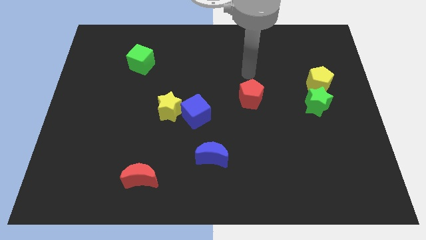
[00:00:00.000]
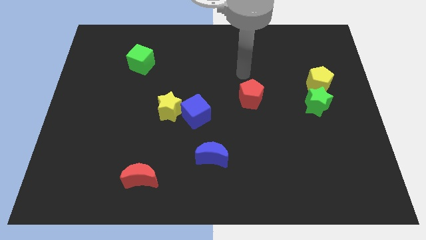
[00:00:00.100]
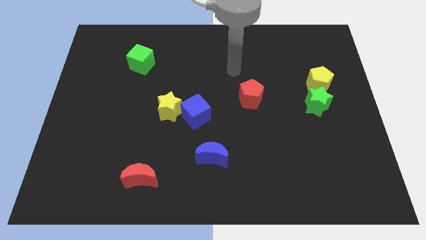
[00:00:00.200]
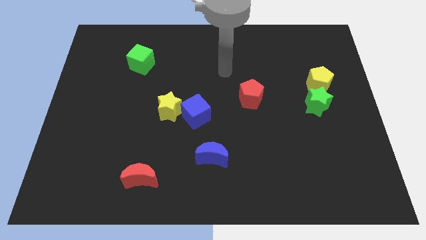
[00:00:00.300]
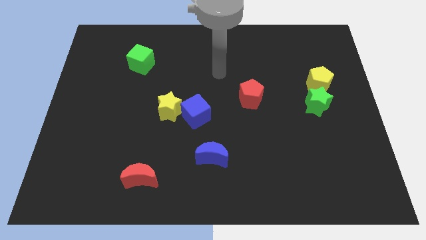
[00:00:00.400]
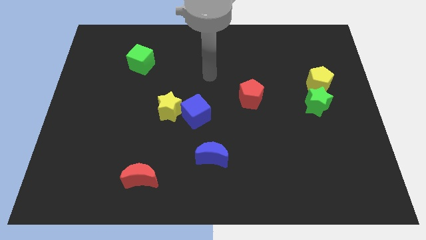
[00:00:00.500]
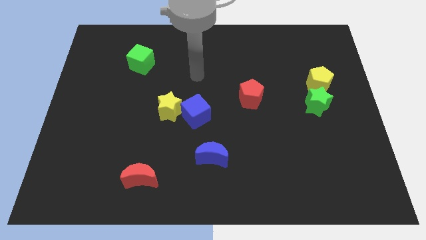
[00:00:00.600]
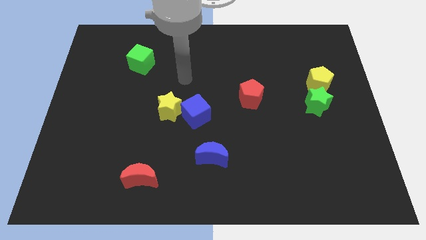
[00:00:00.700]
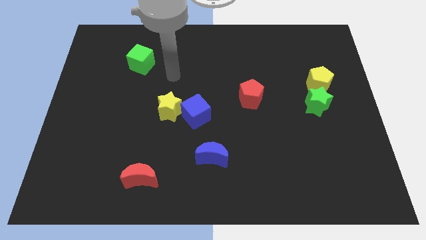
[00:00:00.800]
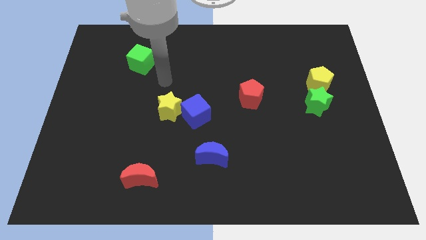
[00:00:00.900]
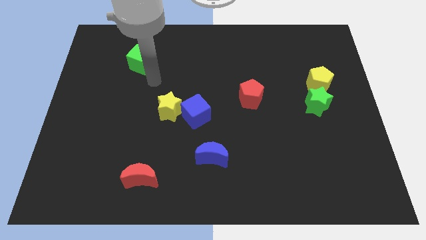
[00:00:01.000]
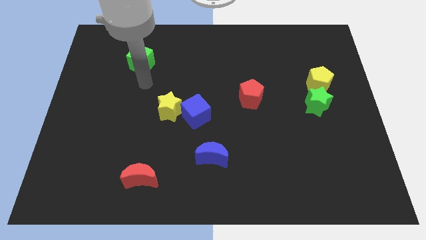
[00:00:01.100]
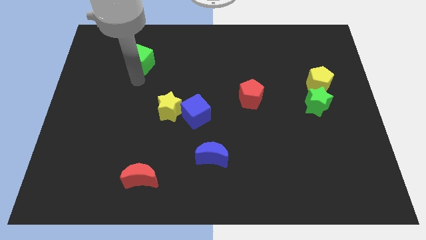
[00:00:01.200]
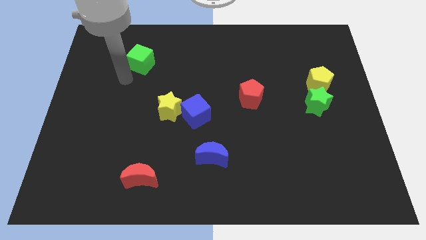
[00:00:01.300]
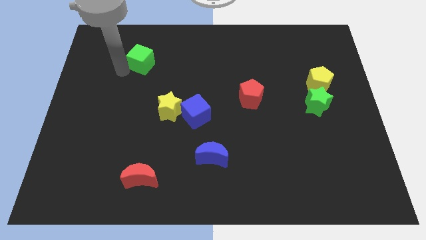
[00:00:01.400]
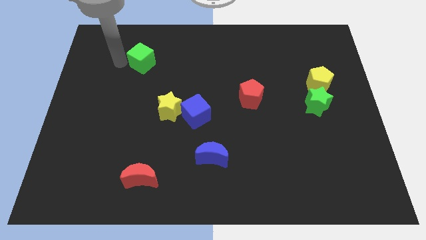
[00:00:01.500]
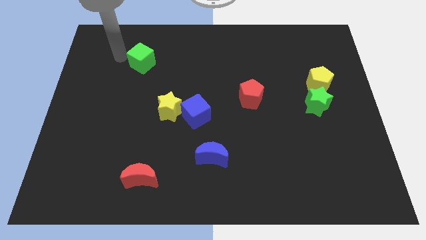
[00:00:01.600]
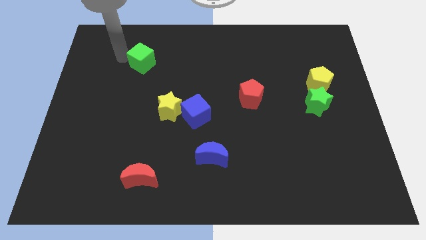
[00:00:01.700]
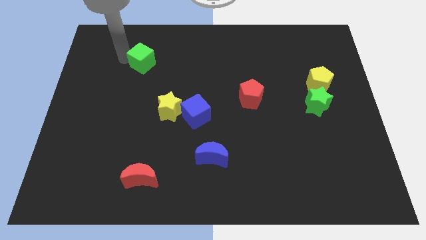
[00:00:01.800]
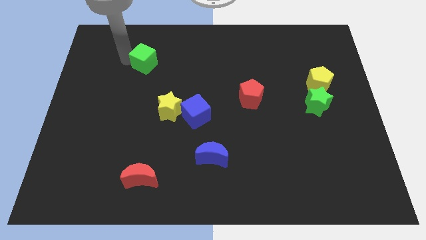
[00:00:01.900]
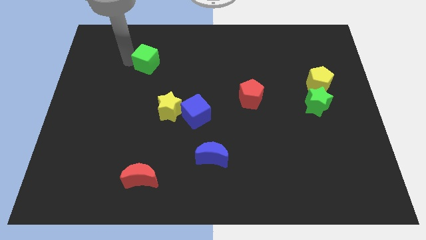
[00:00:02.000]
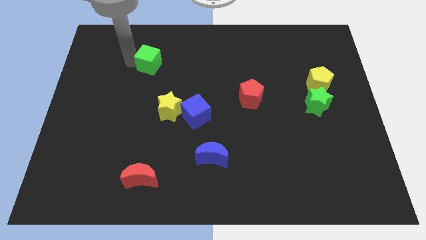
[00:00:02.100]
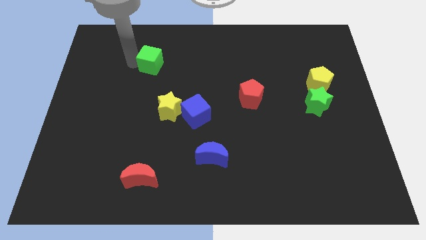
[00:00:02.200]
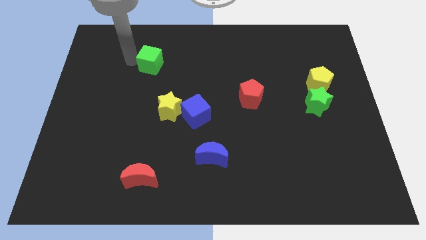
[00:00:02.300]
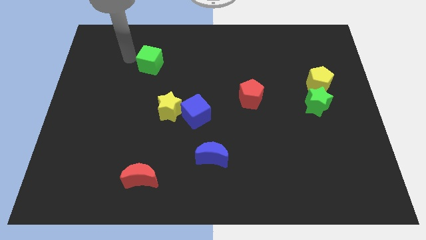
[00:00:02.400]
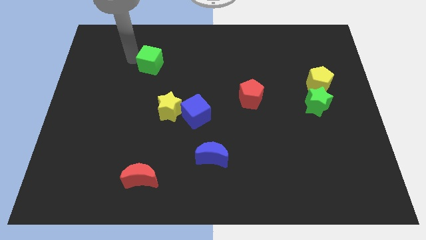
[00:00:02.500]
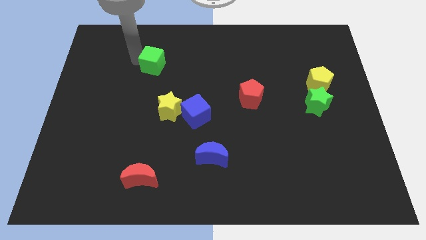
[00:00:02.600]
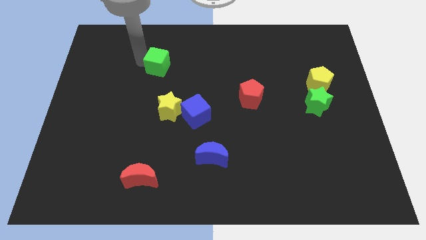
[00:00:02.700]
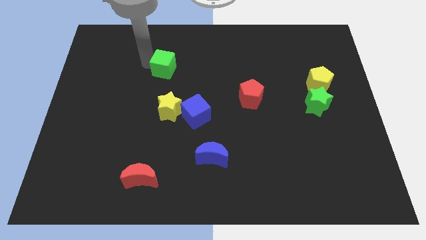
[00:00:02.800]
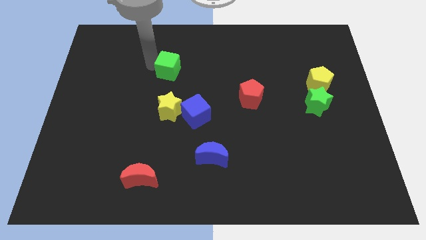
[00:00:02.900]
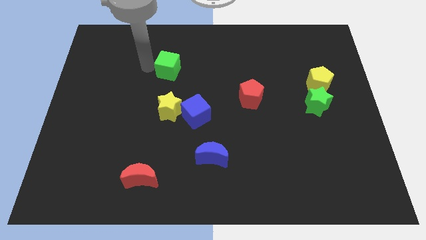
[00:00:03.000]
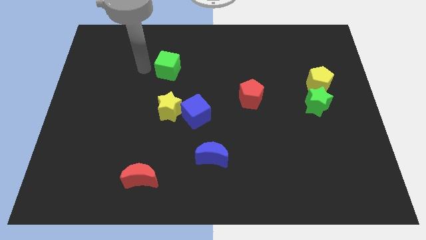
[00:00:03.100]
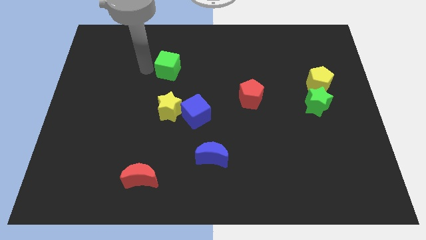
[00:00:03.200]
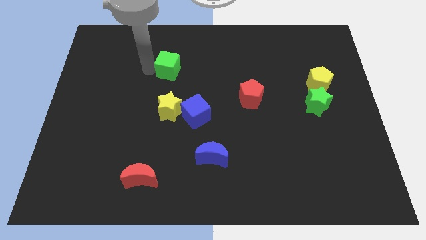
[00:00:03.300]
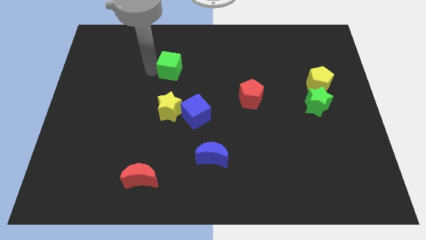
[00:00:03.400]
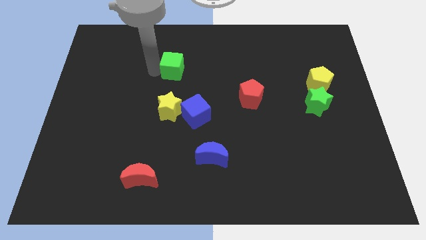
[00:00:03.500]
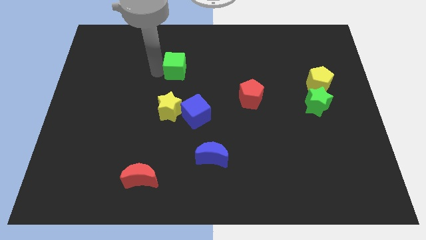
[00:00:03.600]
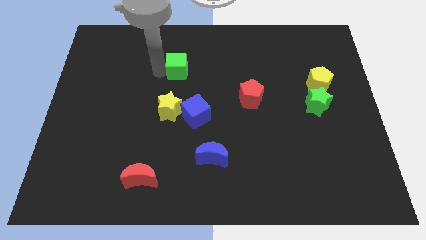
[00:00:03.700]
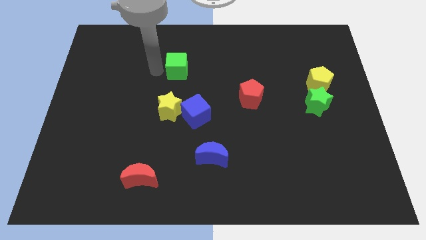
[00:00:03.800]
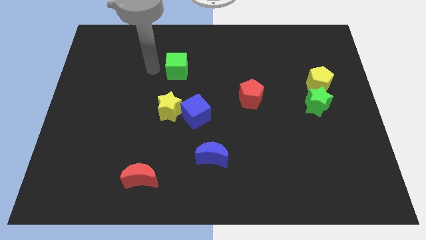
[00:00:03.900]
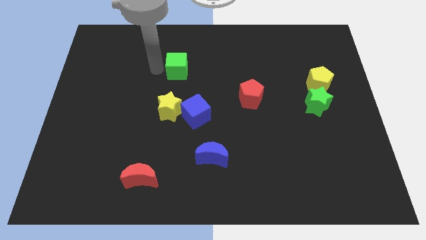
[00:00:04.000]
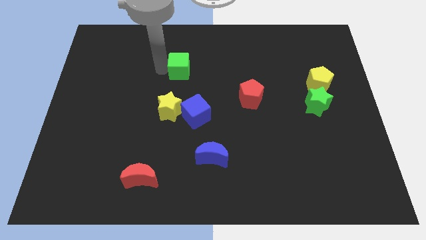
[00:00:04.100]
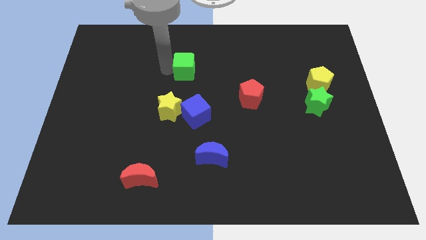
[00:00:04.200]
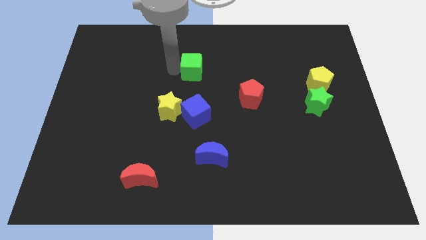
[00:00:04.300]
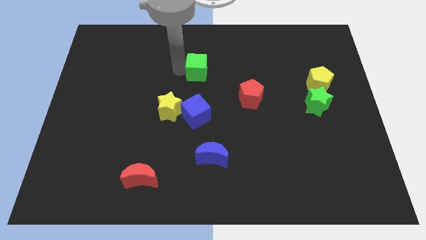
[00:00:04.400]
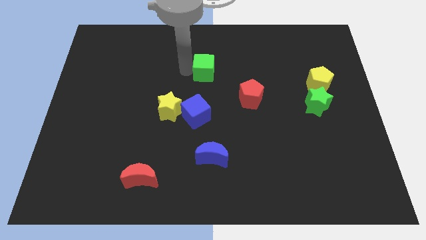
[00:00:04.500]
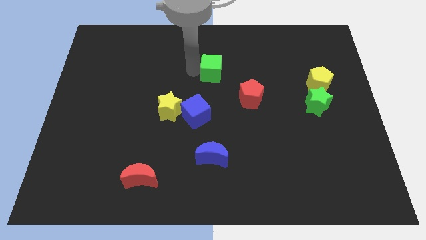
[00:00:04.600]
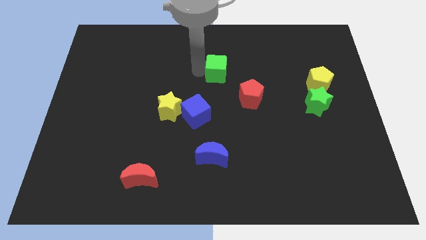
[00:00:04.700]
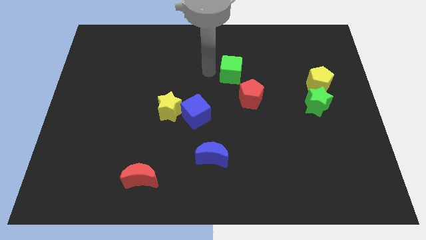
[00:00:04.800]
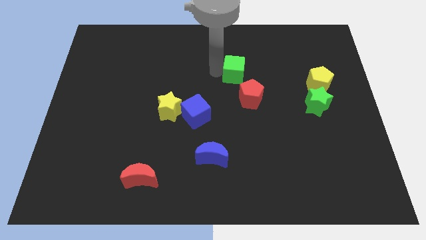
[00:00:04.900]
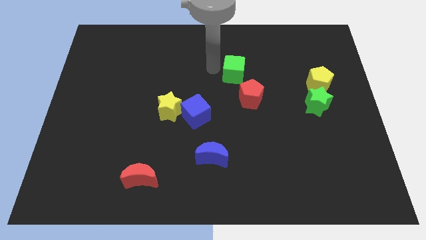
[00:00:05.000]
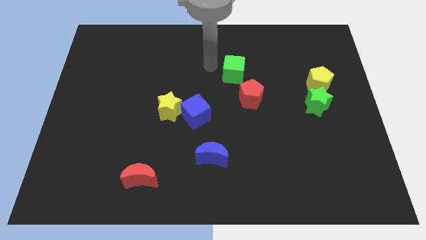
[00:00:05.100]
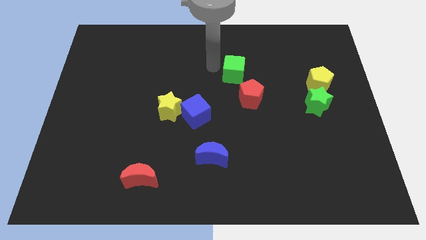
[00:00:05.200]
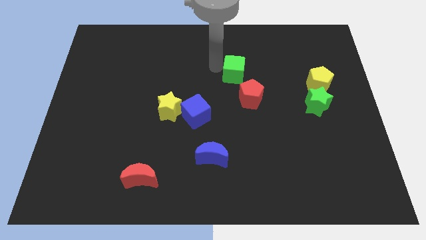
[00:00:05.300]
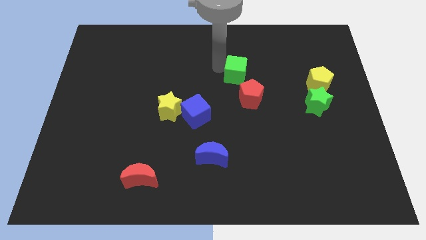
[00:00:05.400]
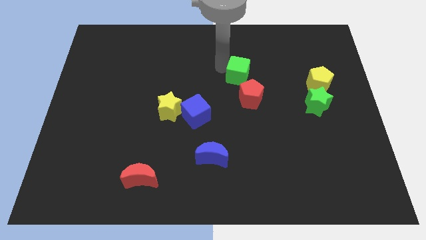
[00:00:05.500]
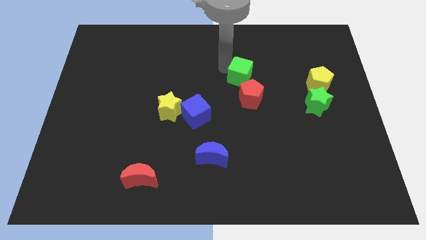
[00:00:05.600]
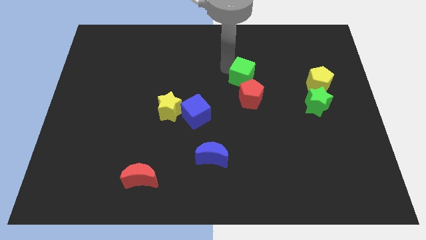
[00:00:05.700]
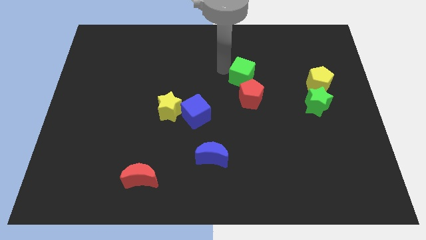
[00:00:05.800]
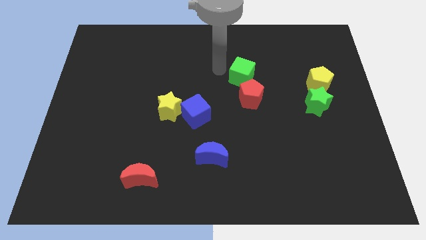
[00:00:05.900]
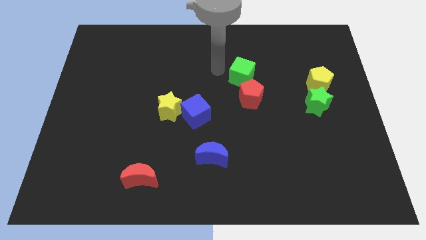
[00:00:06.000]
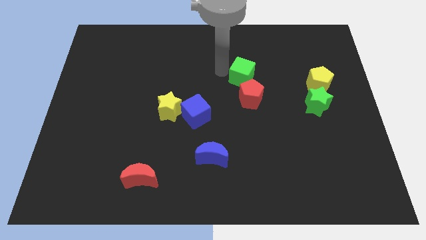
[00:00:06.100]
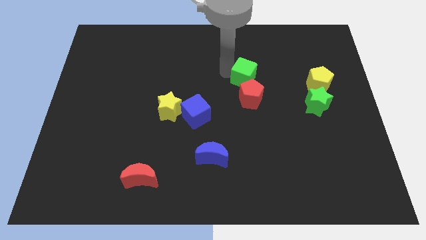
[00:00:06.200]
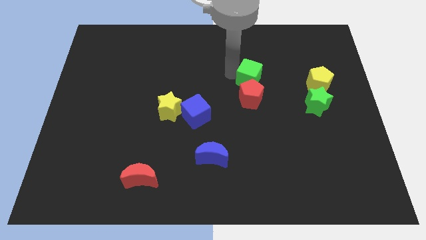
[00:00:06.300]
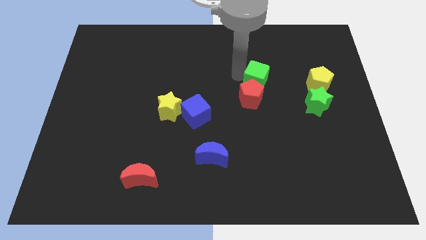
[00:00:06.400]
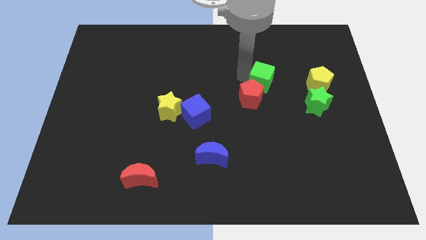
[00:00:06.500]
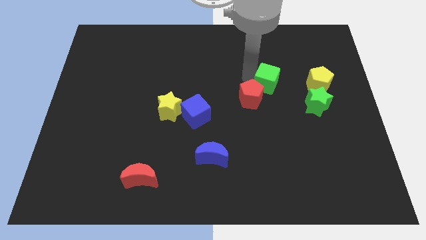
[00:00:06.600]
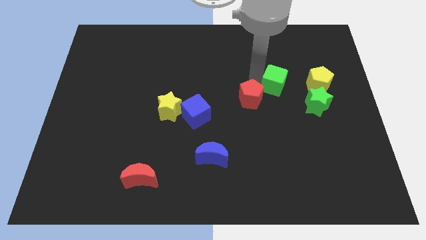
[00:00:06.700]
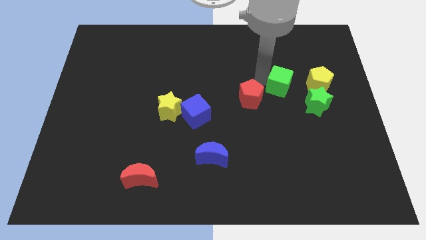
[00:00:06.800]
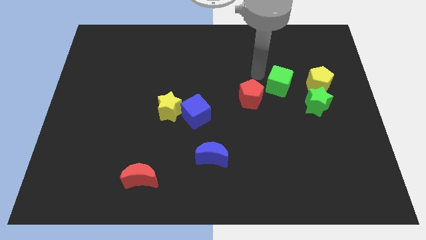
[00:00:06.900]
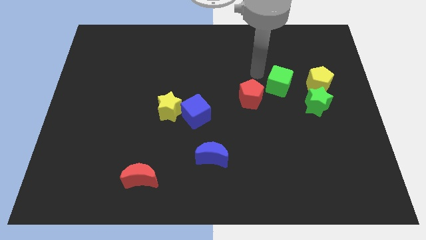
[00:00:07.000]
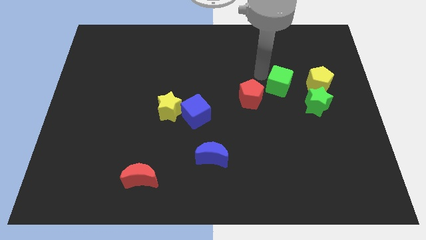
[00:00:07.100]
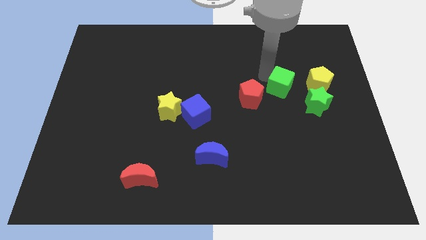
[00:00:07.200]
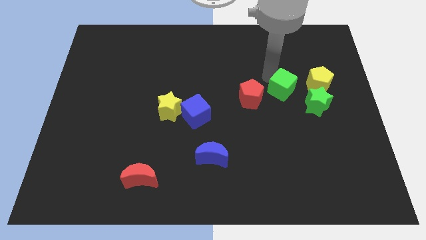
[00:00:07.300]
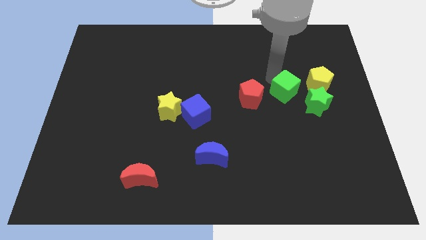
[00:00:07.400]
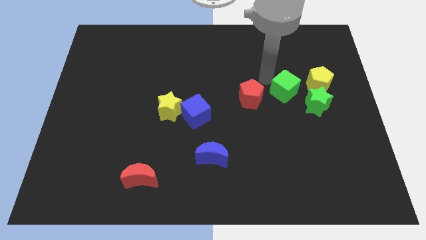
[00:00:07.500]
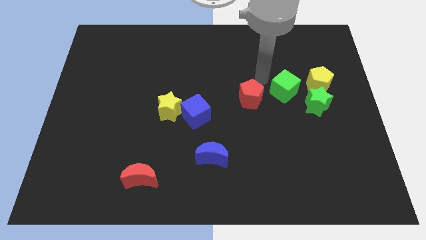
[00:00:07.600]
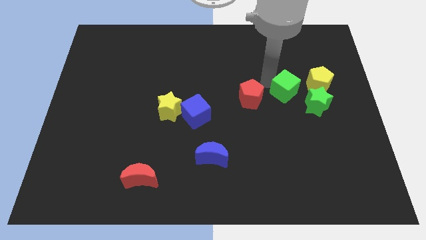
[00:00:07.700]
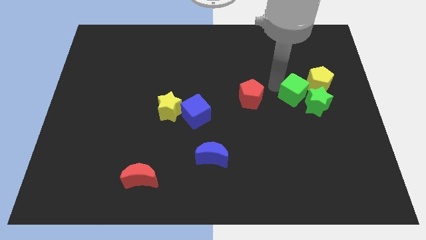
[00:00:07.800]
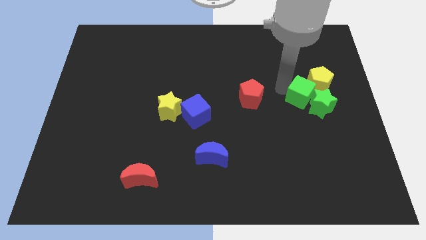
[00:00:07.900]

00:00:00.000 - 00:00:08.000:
move the green cube towards the green star
